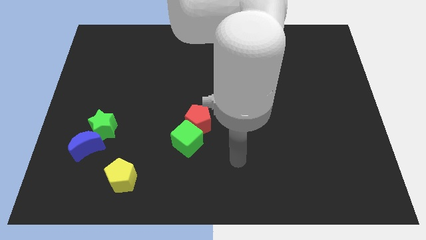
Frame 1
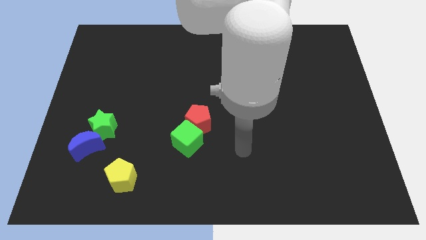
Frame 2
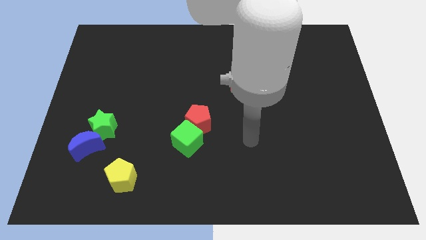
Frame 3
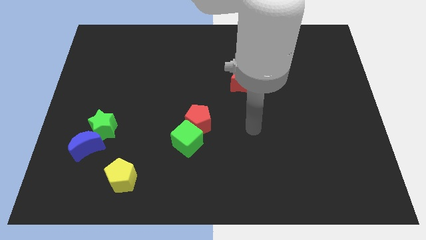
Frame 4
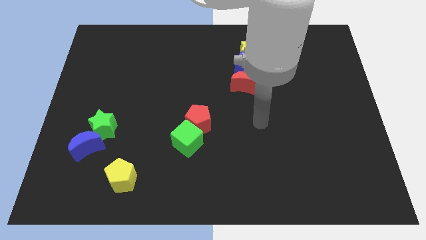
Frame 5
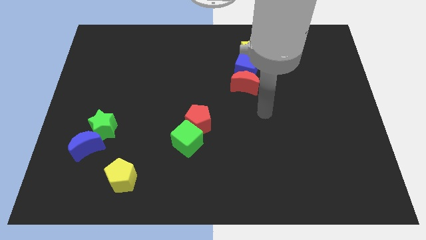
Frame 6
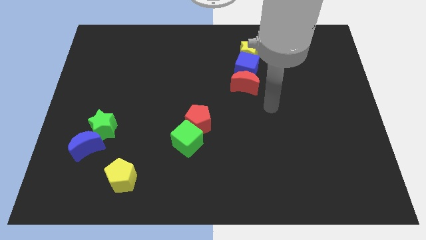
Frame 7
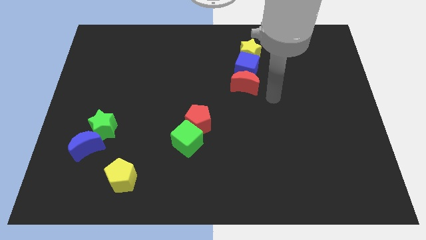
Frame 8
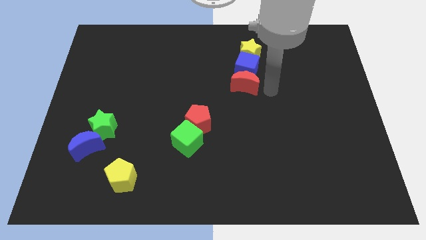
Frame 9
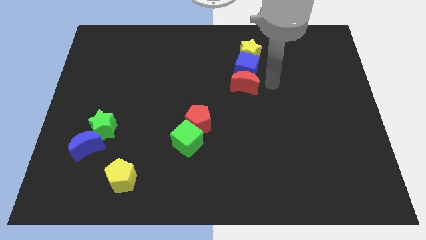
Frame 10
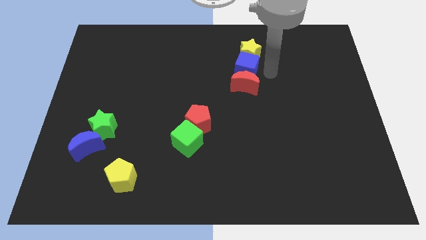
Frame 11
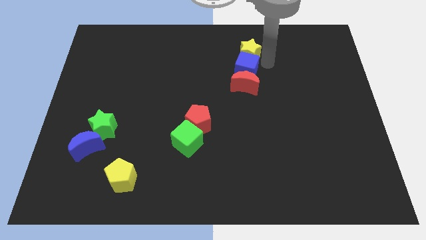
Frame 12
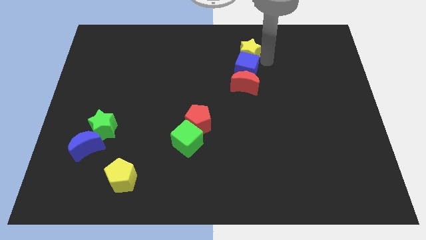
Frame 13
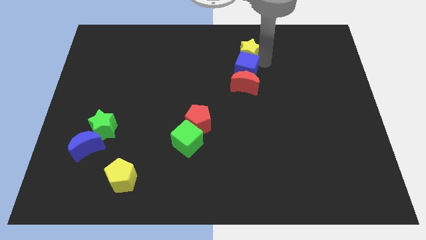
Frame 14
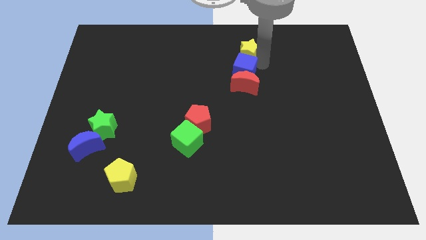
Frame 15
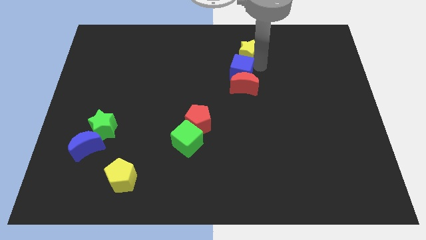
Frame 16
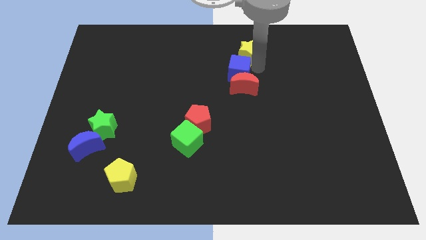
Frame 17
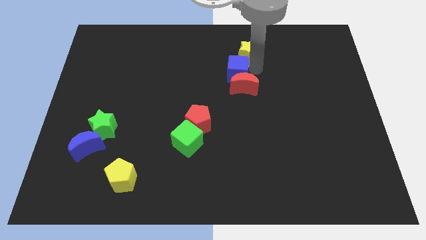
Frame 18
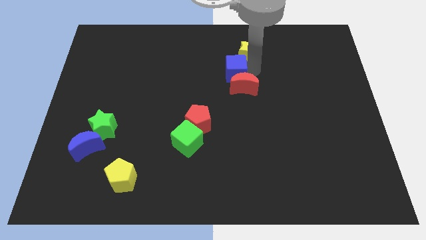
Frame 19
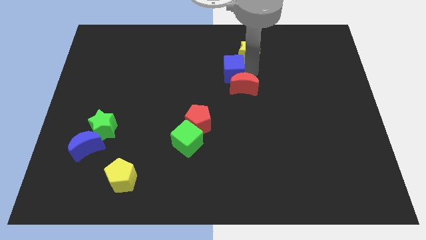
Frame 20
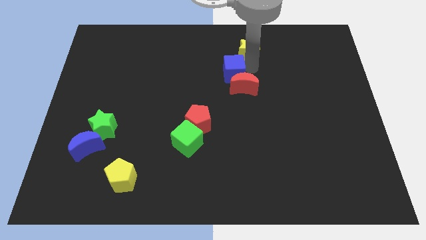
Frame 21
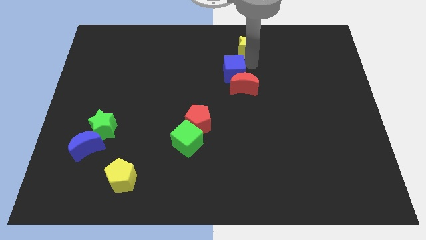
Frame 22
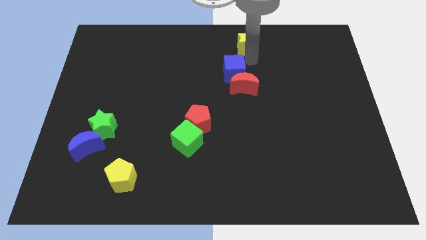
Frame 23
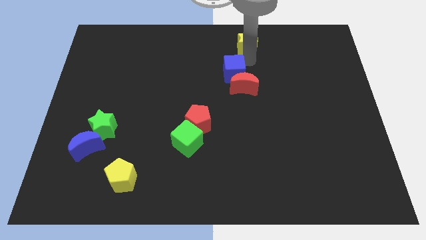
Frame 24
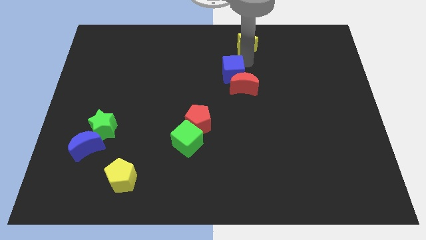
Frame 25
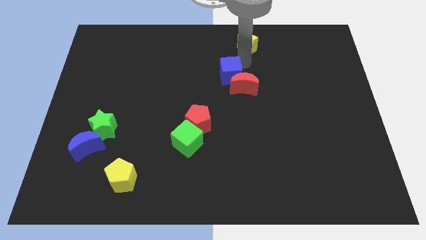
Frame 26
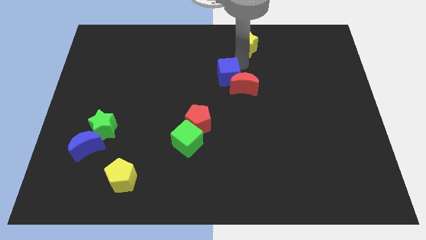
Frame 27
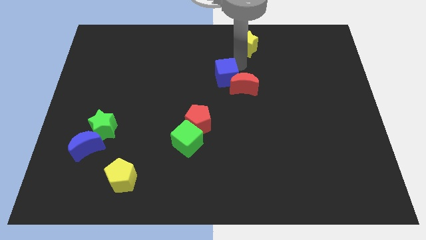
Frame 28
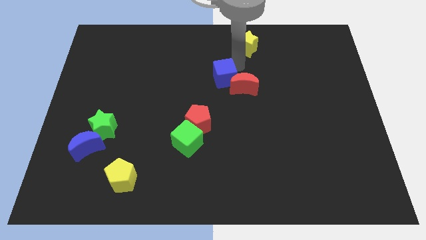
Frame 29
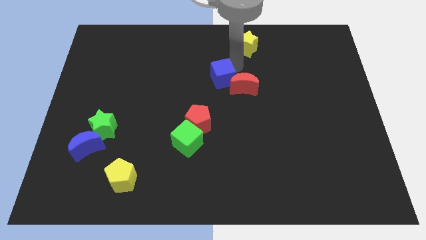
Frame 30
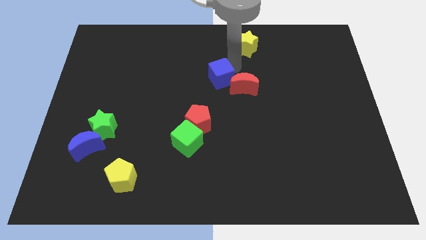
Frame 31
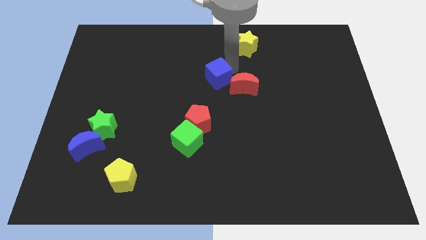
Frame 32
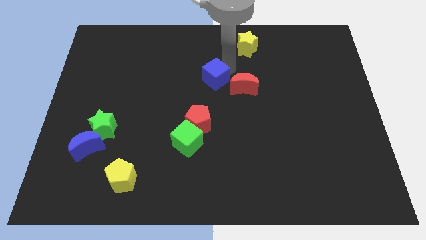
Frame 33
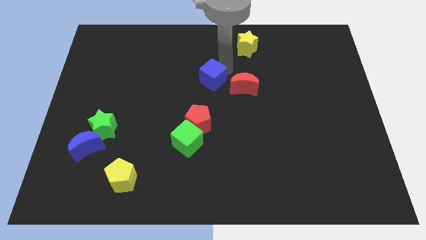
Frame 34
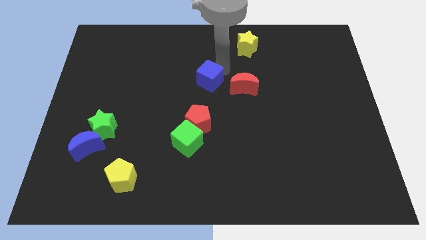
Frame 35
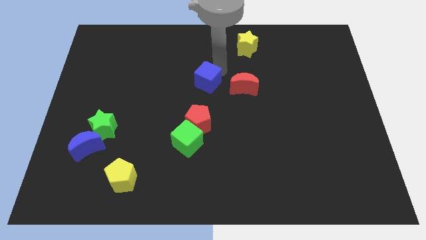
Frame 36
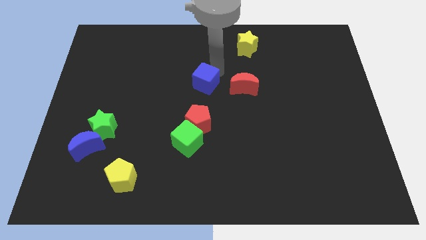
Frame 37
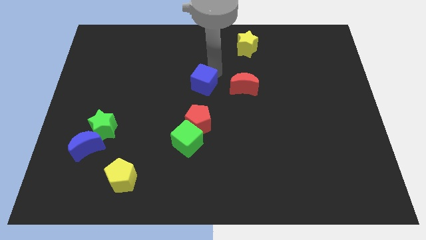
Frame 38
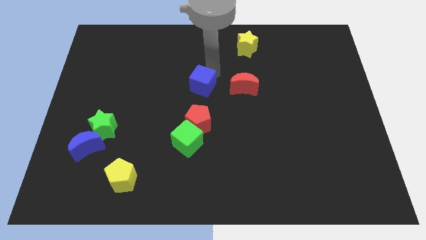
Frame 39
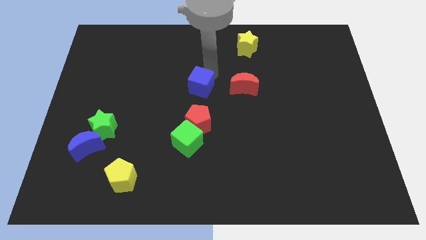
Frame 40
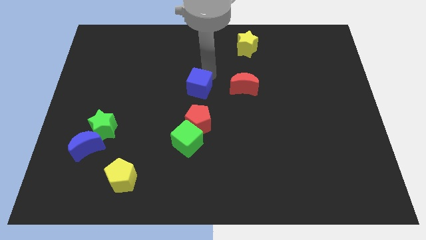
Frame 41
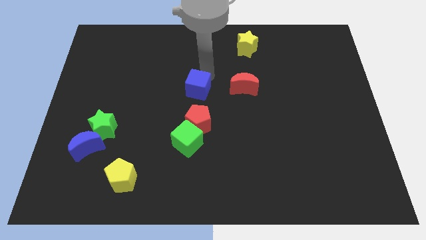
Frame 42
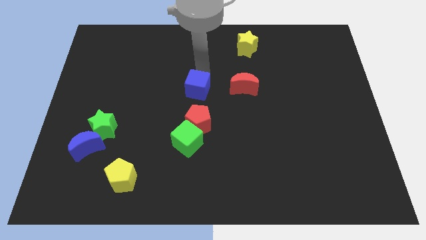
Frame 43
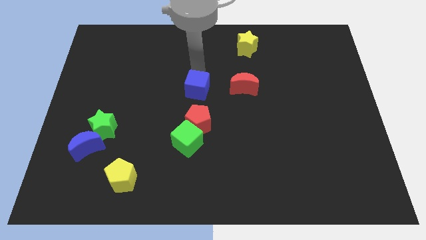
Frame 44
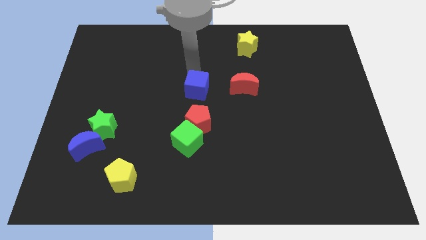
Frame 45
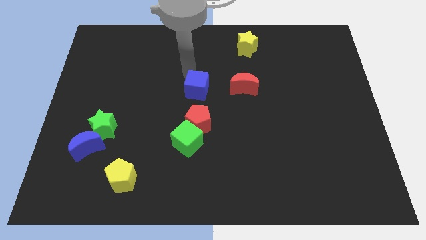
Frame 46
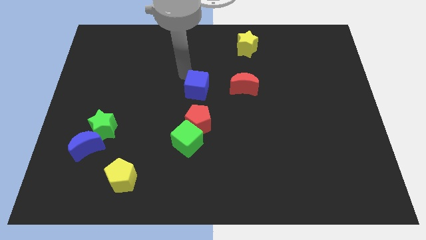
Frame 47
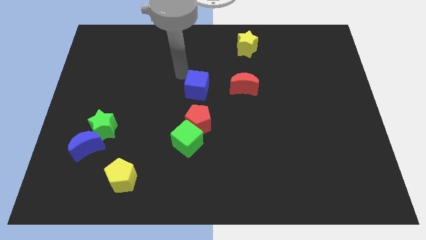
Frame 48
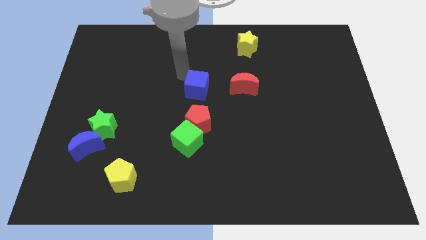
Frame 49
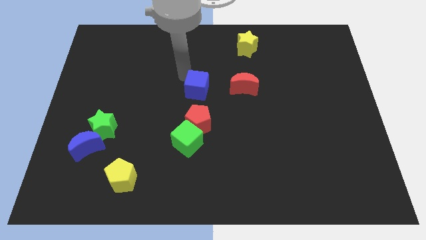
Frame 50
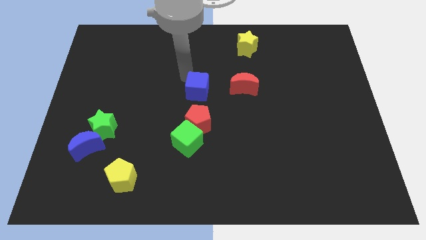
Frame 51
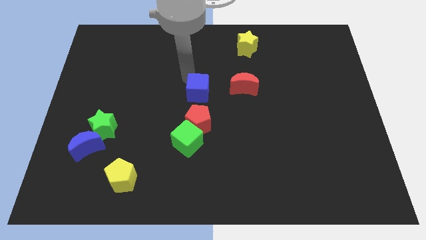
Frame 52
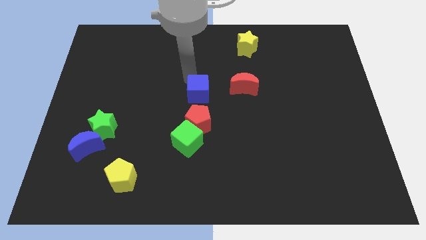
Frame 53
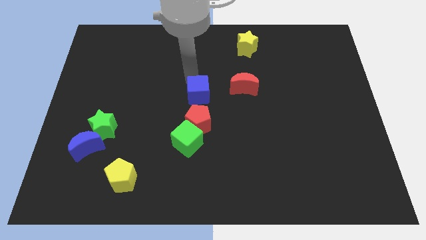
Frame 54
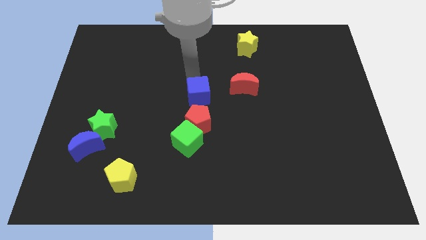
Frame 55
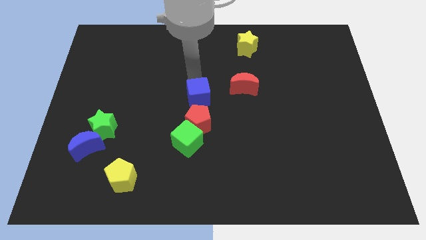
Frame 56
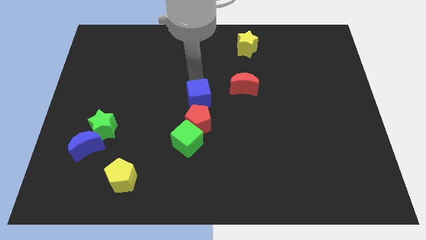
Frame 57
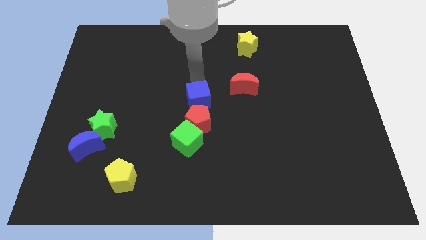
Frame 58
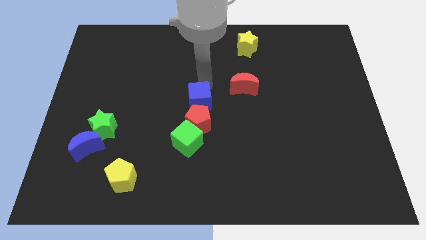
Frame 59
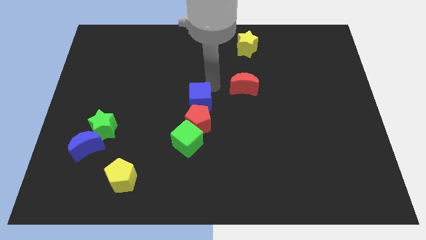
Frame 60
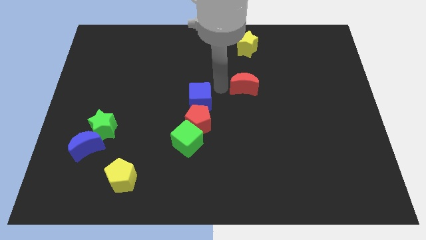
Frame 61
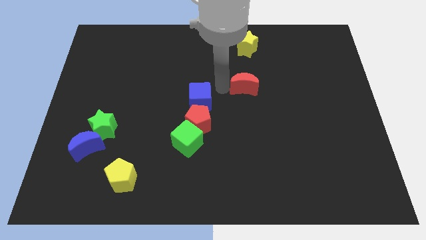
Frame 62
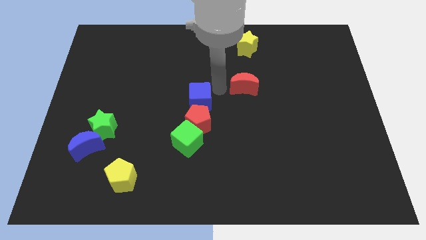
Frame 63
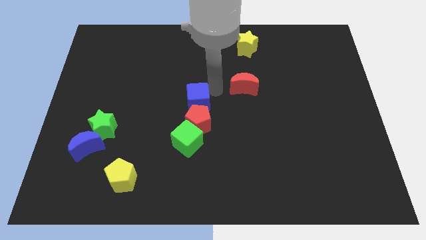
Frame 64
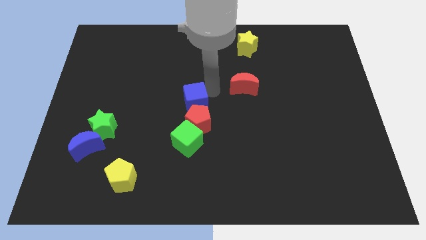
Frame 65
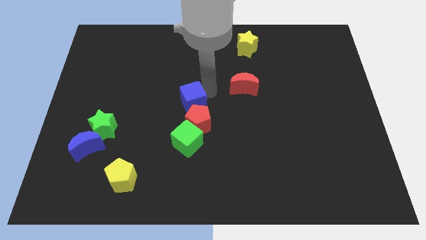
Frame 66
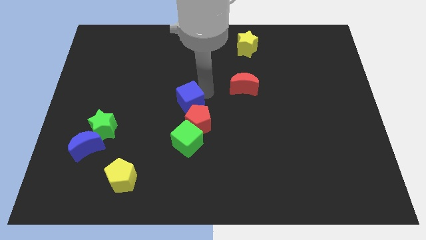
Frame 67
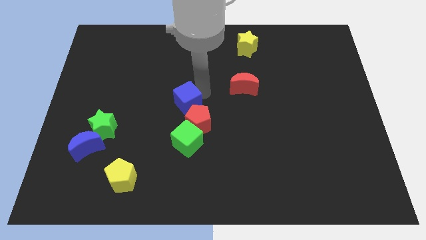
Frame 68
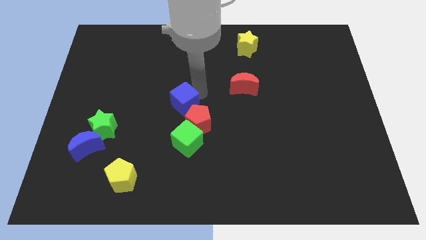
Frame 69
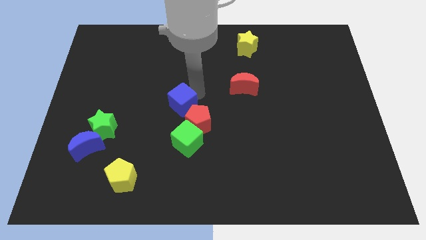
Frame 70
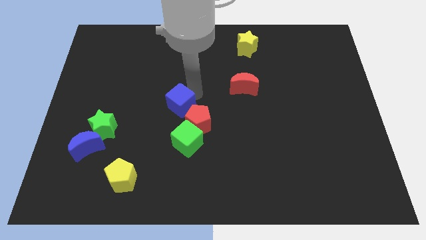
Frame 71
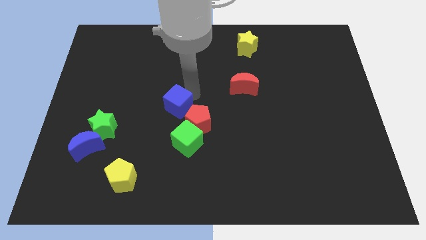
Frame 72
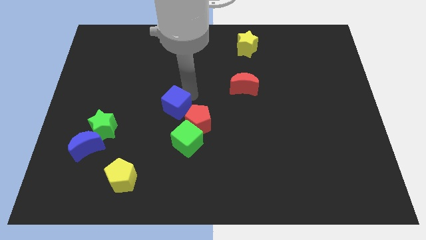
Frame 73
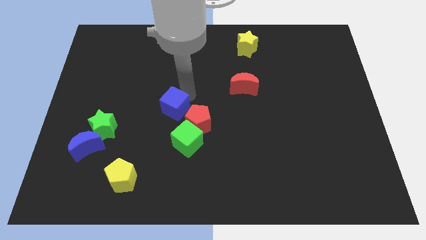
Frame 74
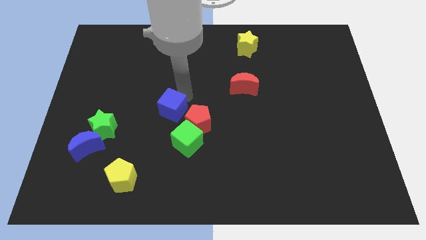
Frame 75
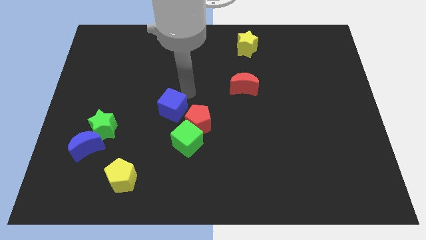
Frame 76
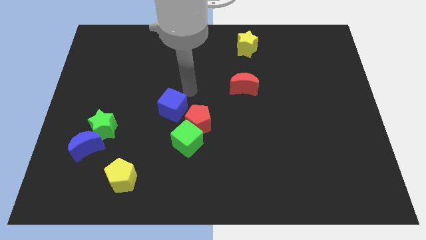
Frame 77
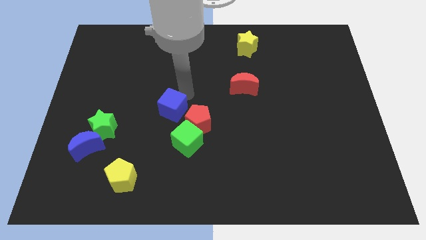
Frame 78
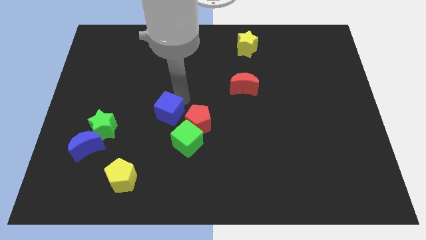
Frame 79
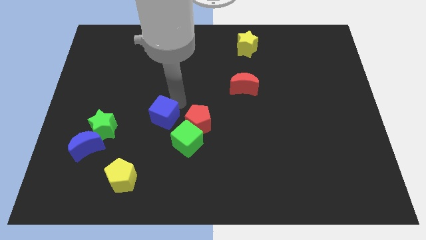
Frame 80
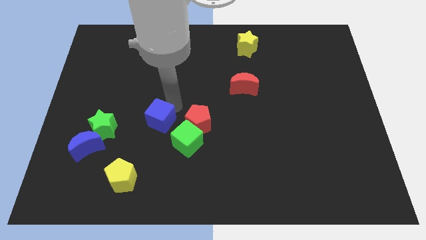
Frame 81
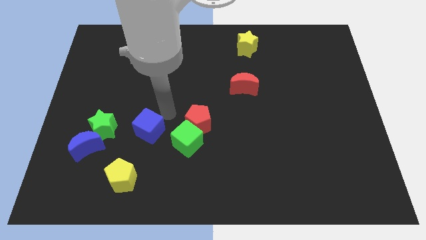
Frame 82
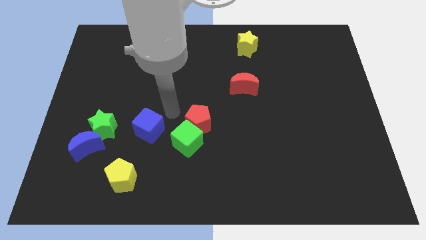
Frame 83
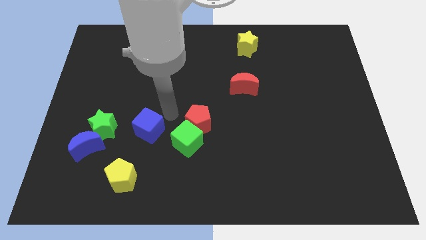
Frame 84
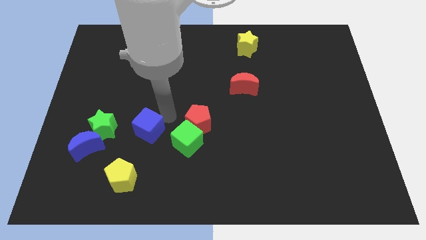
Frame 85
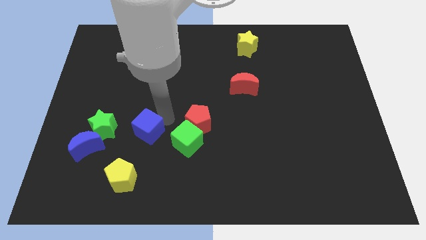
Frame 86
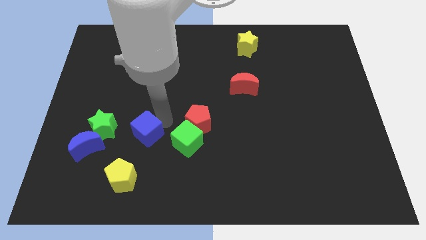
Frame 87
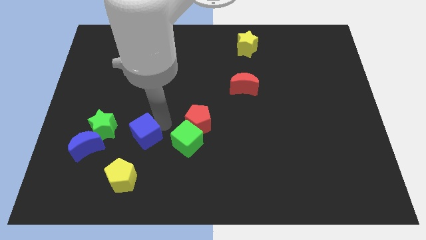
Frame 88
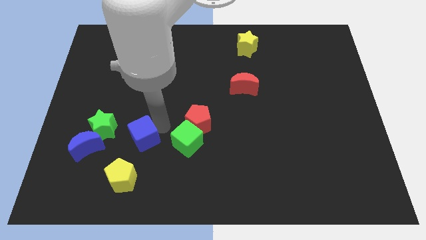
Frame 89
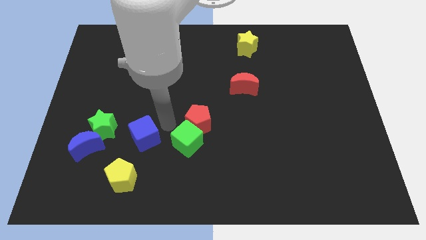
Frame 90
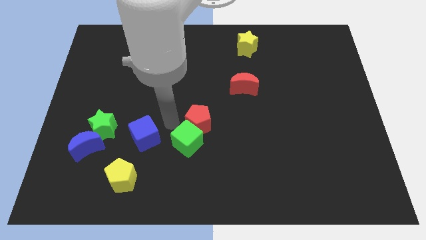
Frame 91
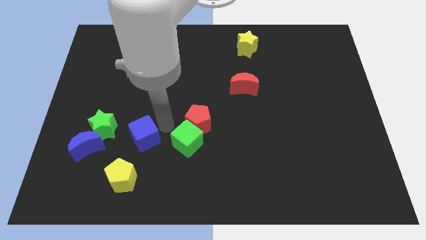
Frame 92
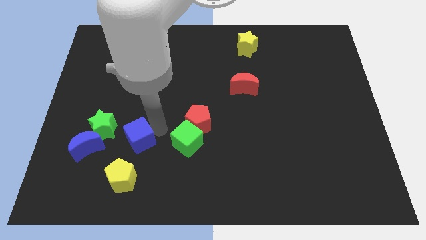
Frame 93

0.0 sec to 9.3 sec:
put the blue cube to the bottom right side of the green star
